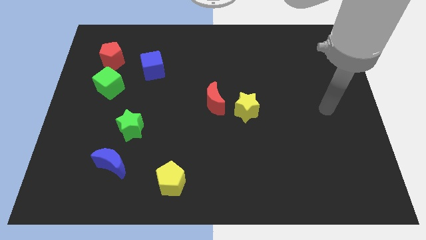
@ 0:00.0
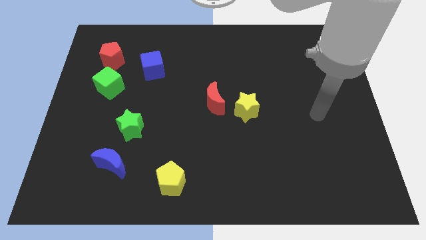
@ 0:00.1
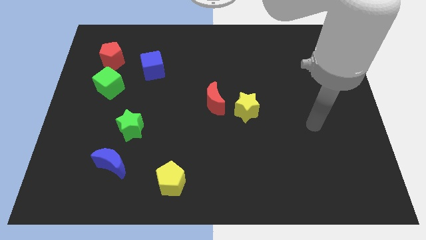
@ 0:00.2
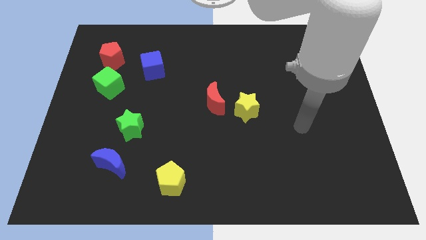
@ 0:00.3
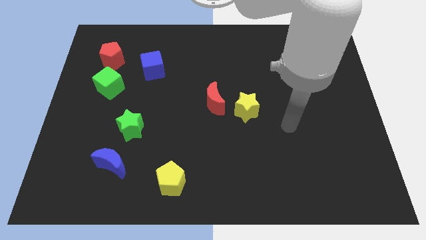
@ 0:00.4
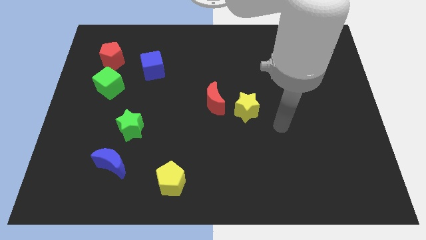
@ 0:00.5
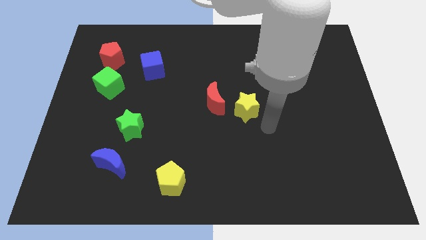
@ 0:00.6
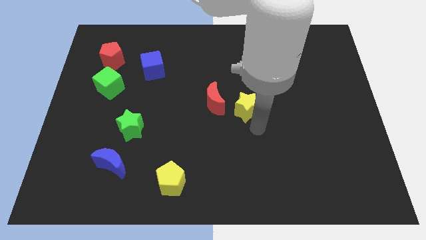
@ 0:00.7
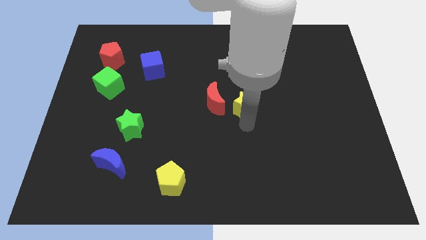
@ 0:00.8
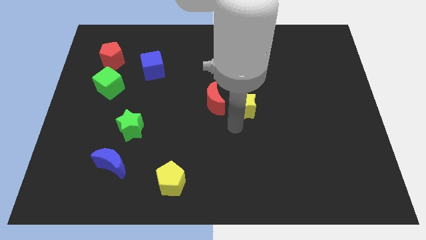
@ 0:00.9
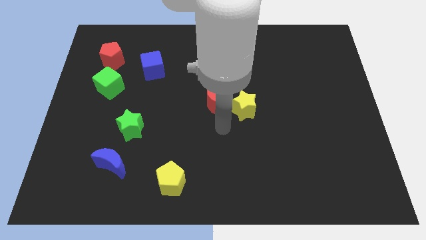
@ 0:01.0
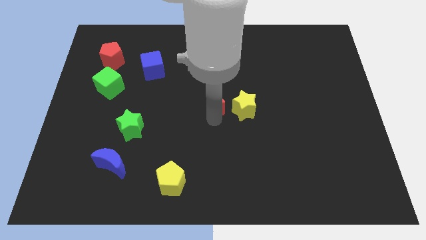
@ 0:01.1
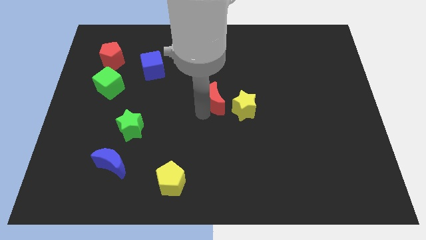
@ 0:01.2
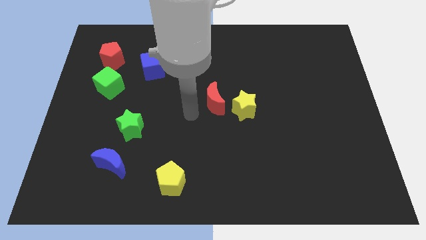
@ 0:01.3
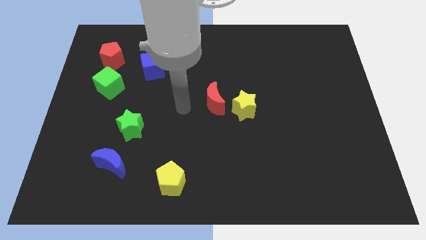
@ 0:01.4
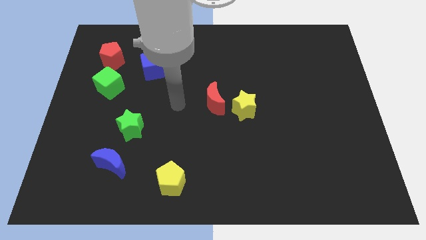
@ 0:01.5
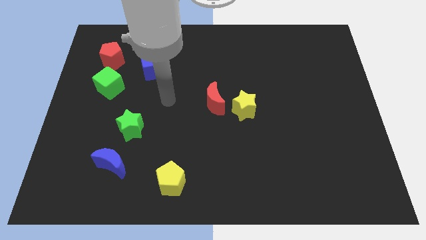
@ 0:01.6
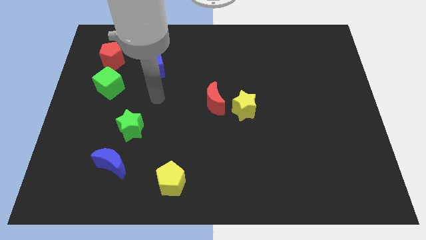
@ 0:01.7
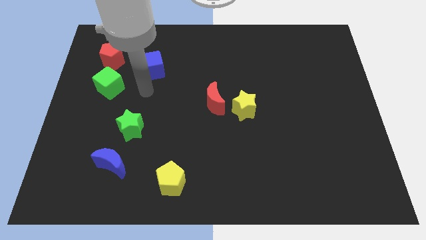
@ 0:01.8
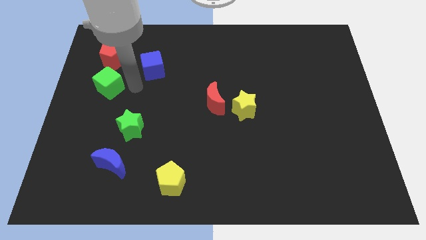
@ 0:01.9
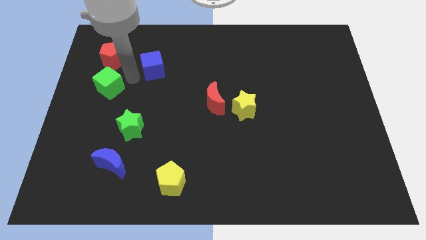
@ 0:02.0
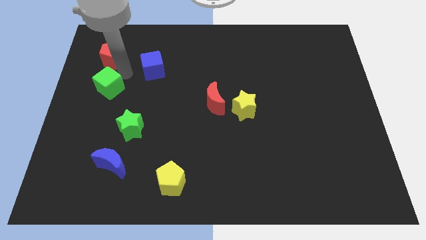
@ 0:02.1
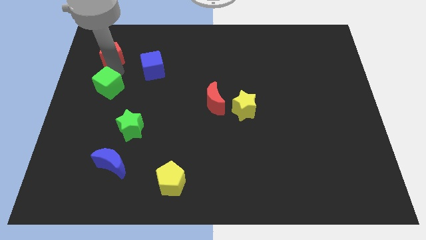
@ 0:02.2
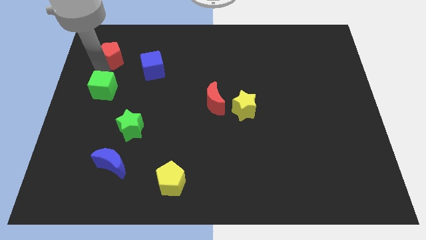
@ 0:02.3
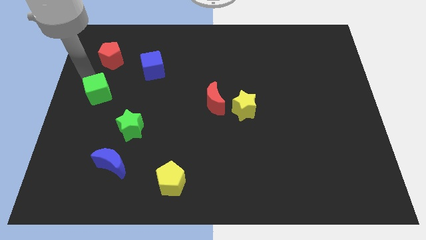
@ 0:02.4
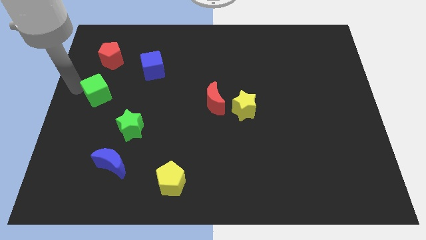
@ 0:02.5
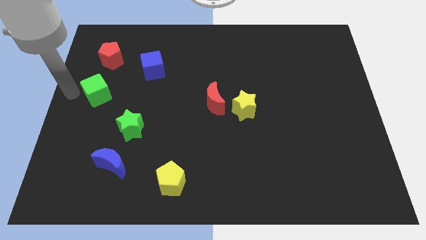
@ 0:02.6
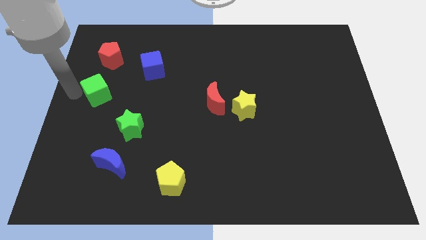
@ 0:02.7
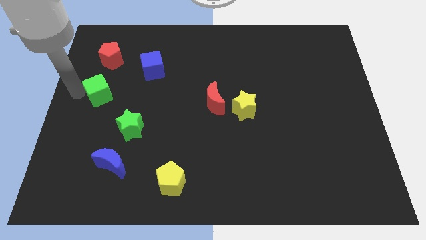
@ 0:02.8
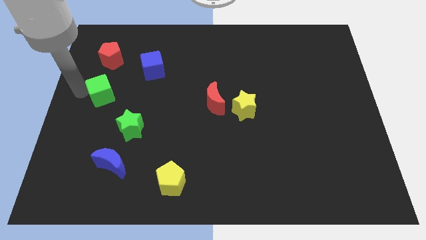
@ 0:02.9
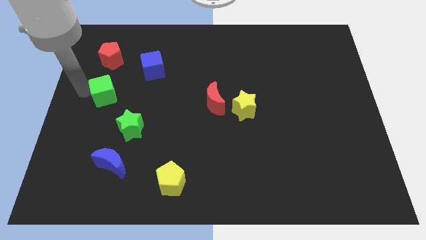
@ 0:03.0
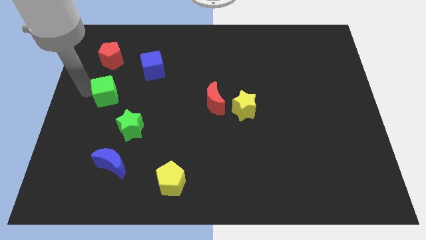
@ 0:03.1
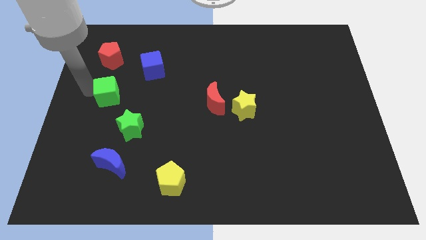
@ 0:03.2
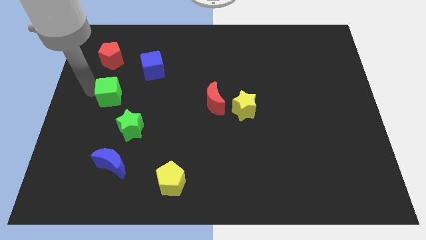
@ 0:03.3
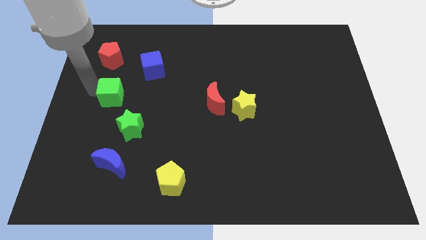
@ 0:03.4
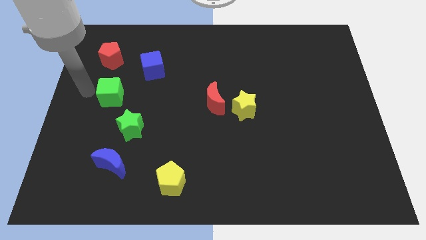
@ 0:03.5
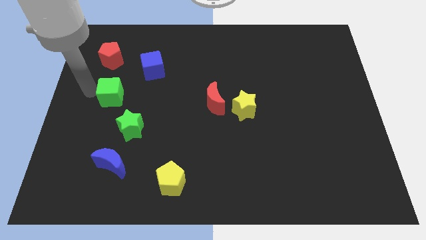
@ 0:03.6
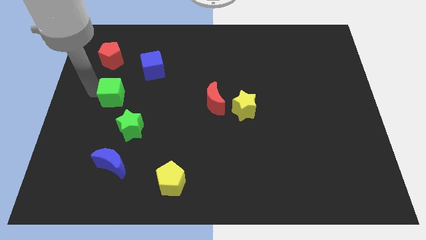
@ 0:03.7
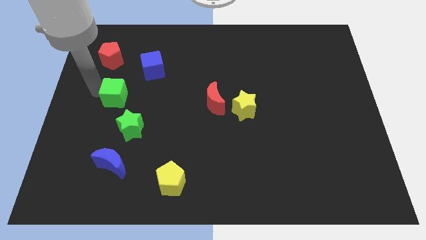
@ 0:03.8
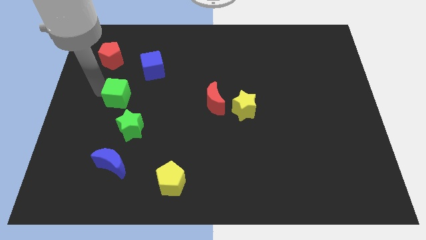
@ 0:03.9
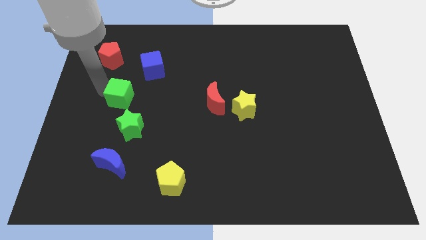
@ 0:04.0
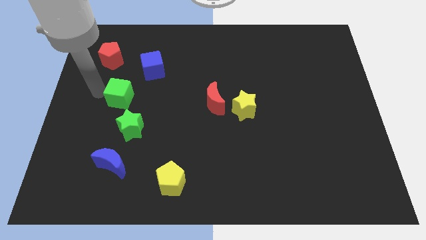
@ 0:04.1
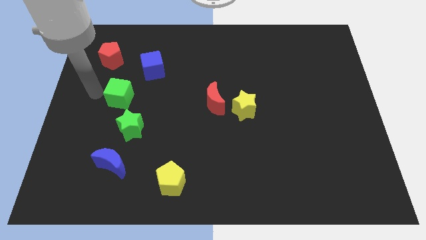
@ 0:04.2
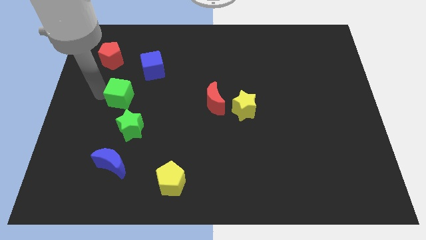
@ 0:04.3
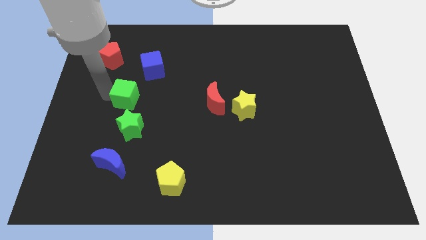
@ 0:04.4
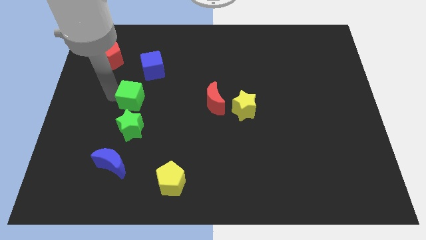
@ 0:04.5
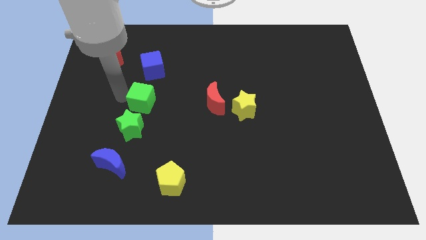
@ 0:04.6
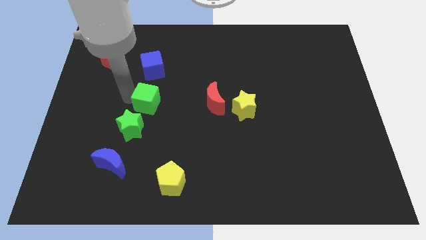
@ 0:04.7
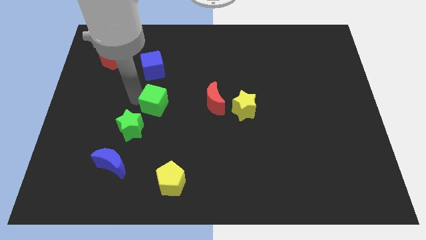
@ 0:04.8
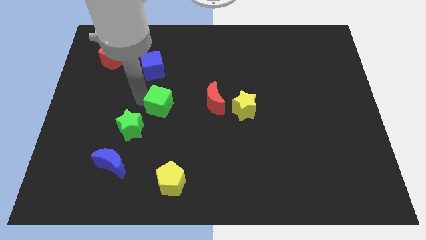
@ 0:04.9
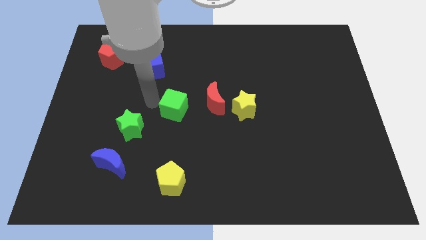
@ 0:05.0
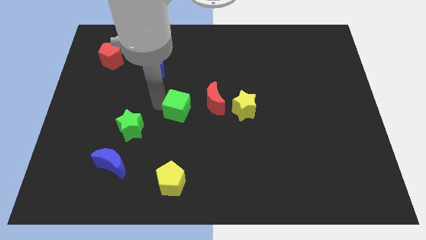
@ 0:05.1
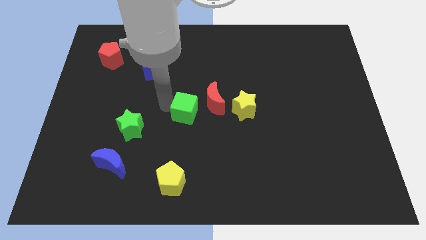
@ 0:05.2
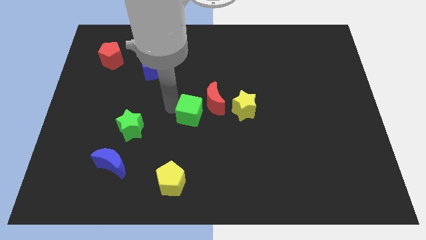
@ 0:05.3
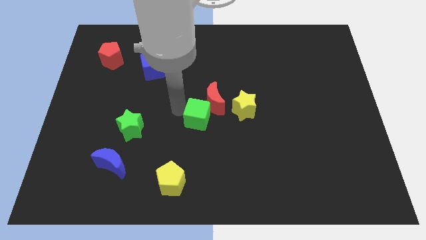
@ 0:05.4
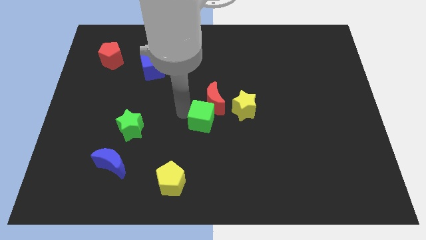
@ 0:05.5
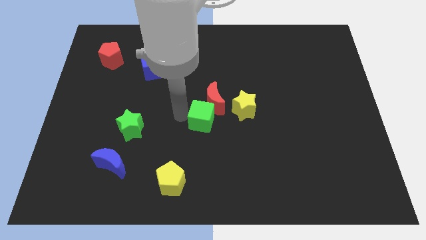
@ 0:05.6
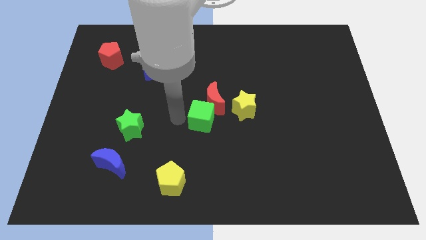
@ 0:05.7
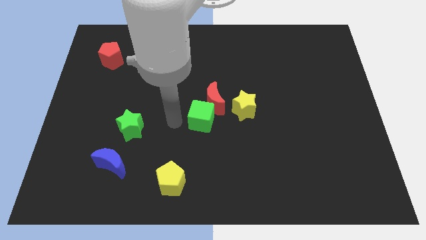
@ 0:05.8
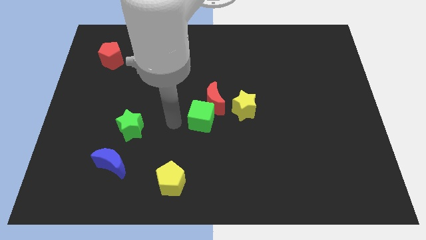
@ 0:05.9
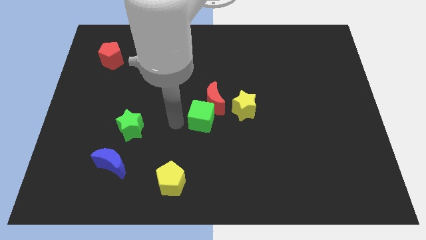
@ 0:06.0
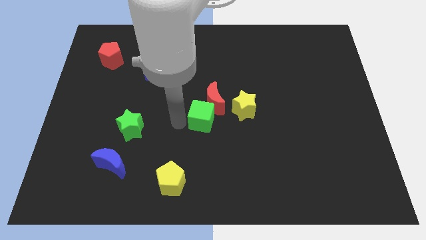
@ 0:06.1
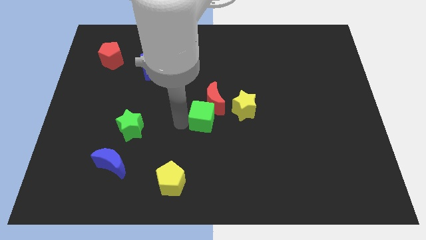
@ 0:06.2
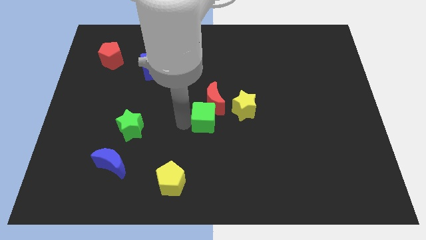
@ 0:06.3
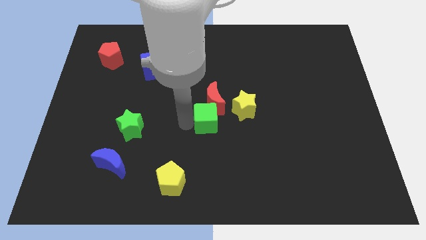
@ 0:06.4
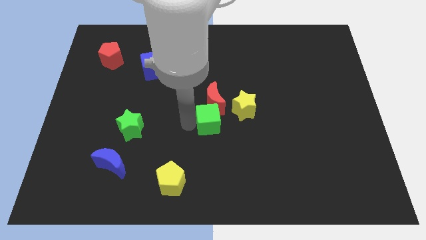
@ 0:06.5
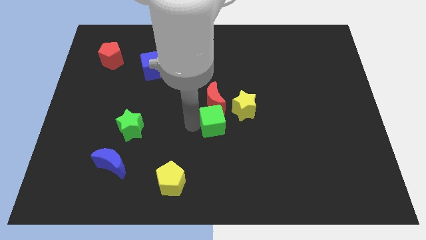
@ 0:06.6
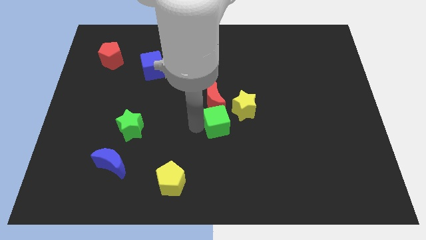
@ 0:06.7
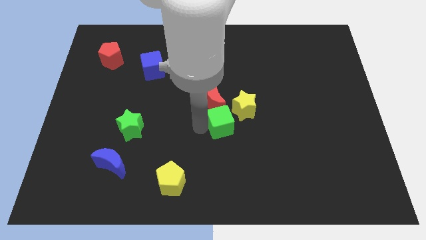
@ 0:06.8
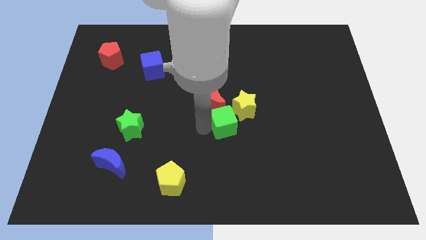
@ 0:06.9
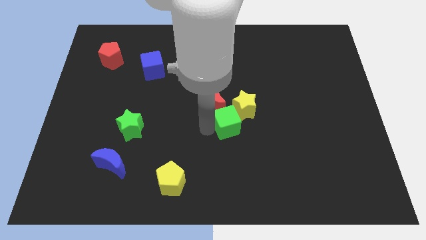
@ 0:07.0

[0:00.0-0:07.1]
push the green cube close to the yellow star

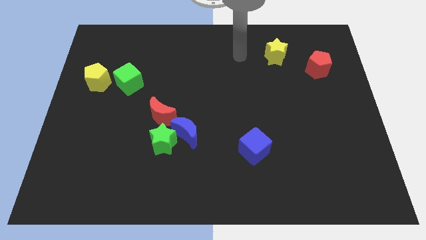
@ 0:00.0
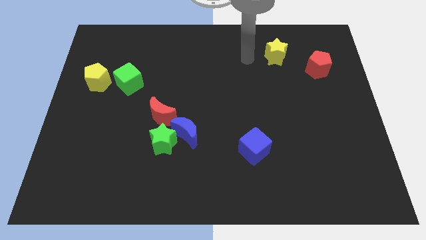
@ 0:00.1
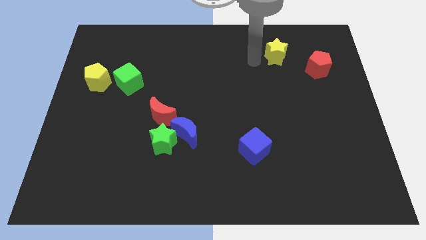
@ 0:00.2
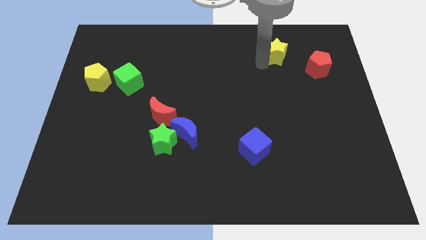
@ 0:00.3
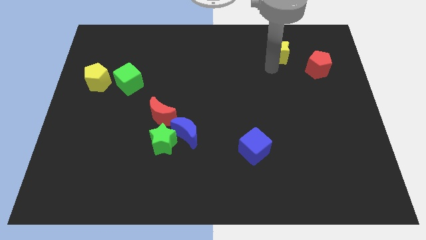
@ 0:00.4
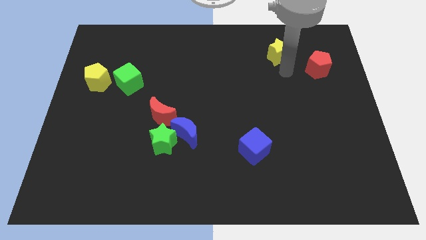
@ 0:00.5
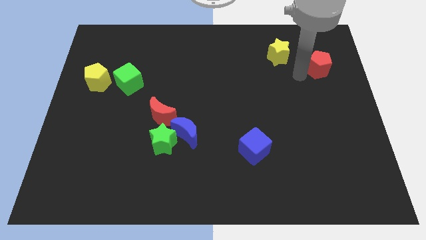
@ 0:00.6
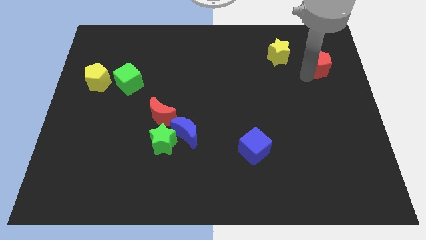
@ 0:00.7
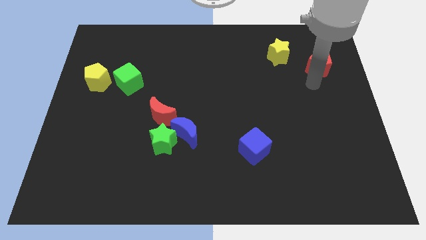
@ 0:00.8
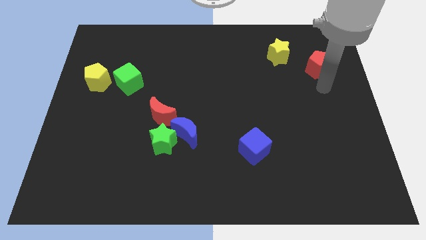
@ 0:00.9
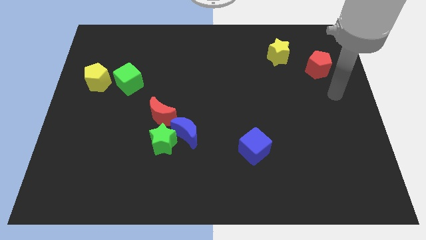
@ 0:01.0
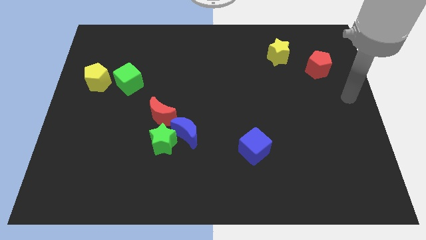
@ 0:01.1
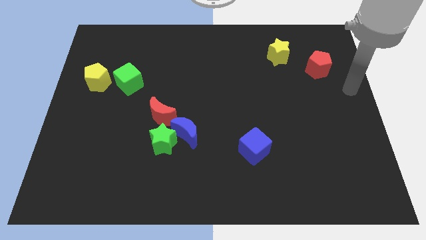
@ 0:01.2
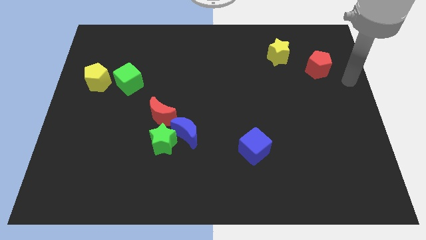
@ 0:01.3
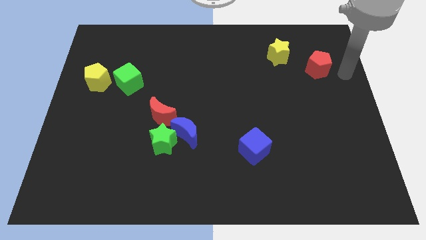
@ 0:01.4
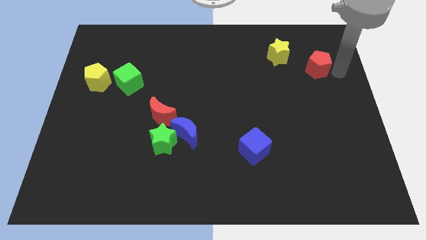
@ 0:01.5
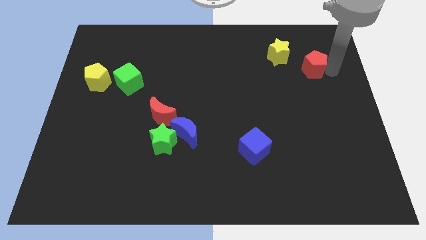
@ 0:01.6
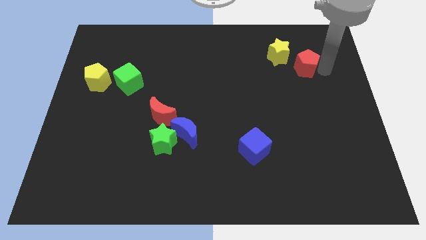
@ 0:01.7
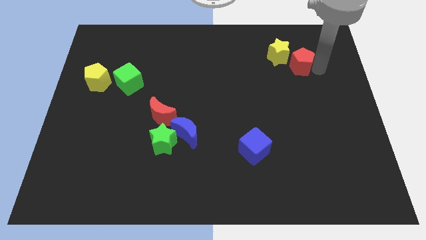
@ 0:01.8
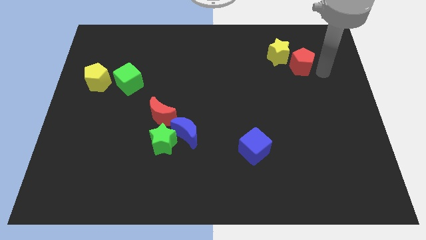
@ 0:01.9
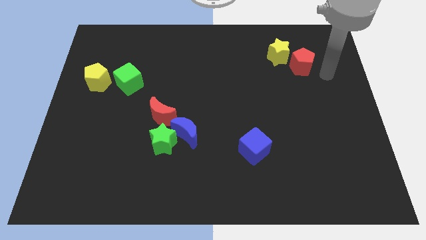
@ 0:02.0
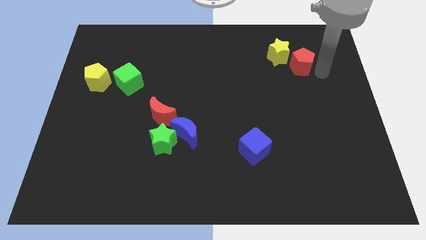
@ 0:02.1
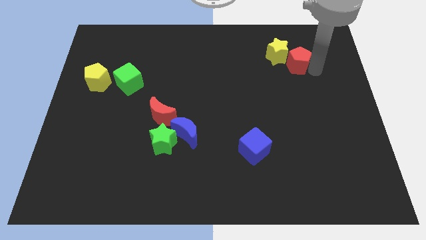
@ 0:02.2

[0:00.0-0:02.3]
push the red pentagon next to the yellow star
